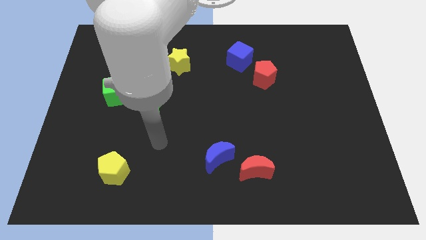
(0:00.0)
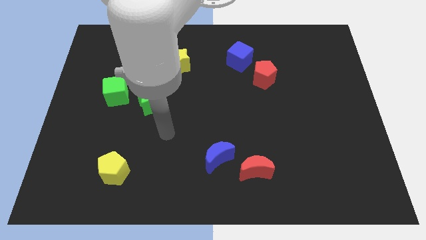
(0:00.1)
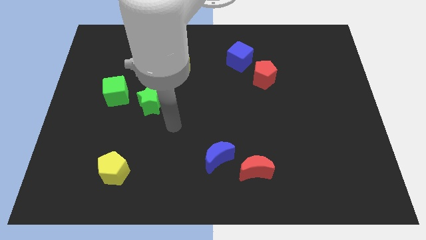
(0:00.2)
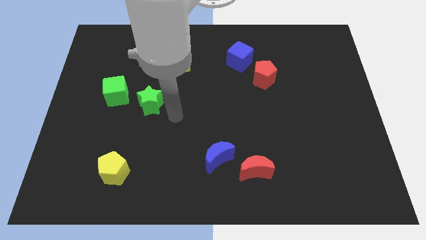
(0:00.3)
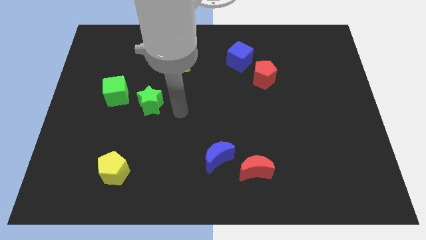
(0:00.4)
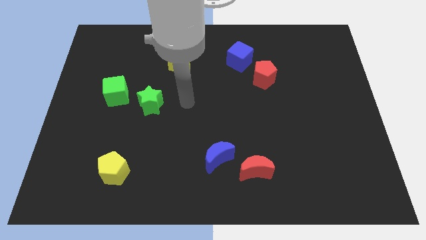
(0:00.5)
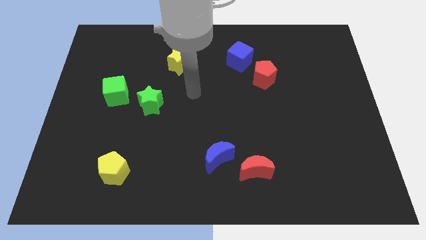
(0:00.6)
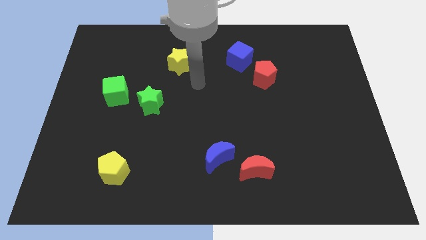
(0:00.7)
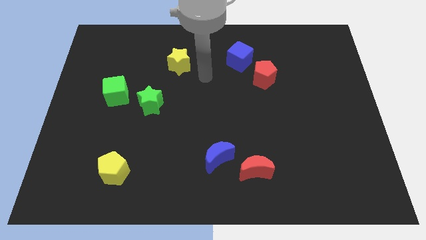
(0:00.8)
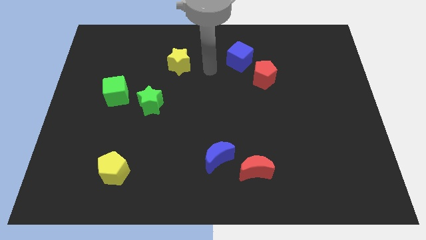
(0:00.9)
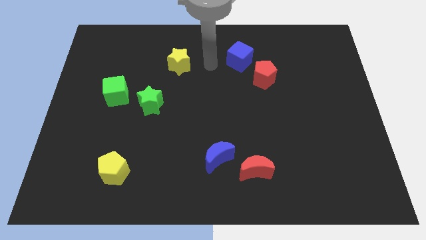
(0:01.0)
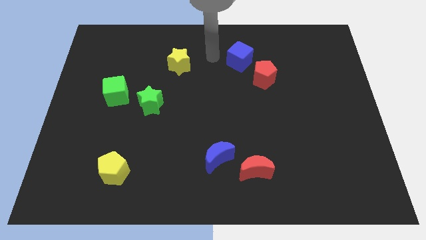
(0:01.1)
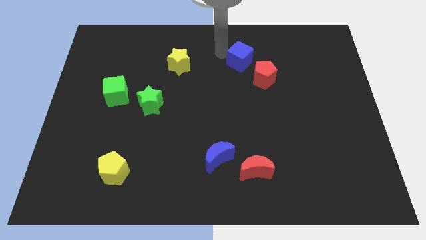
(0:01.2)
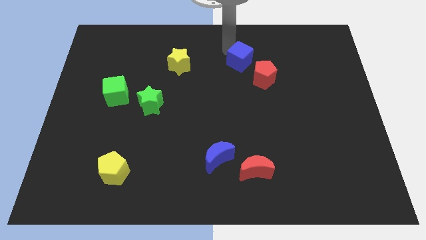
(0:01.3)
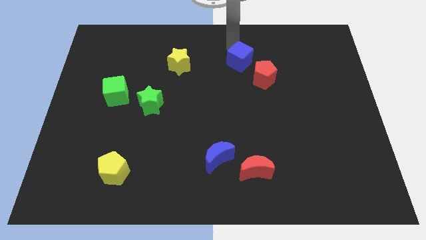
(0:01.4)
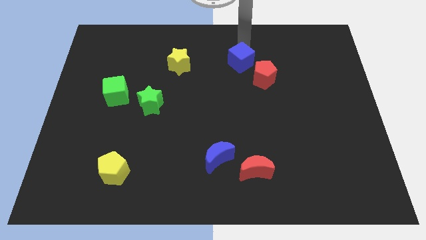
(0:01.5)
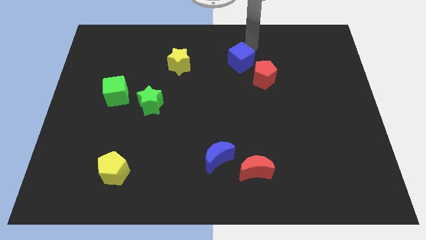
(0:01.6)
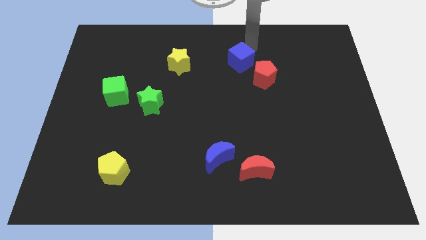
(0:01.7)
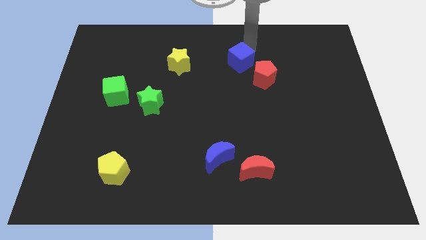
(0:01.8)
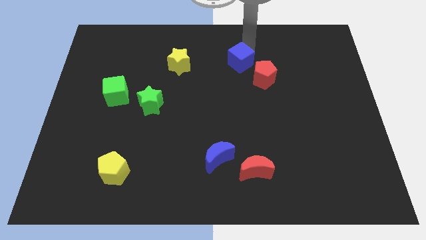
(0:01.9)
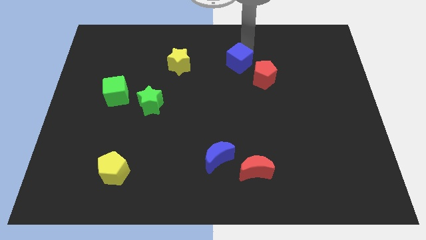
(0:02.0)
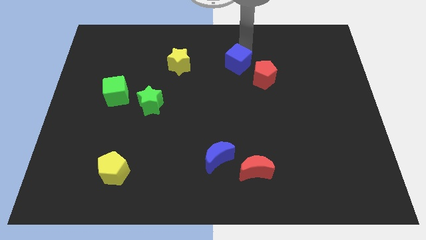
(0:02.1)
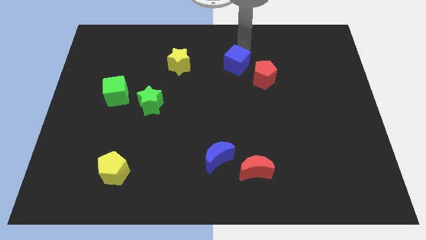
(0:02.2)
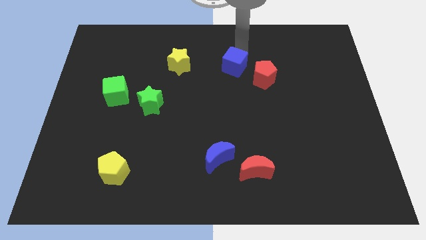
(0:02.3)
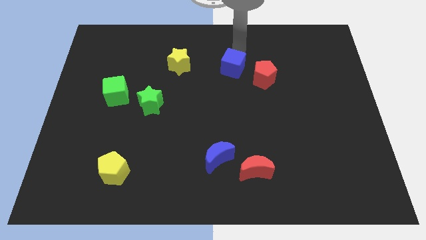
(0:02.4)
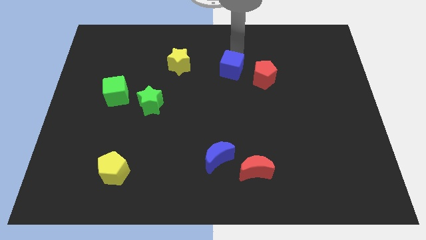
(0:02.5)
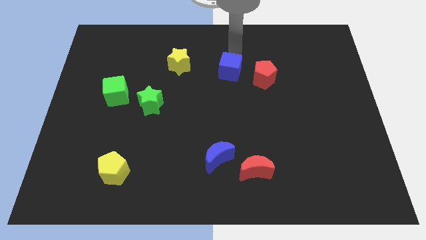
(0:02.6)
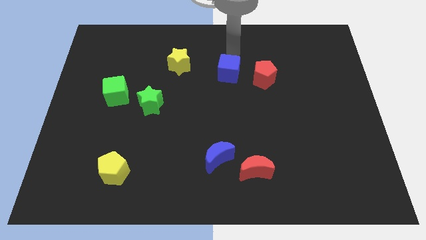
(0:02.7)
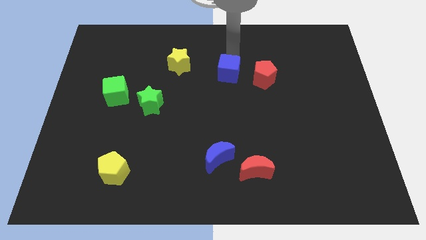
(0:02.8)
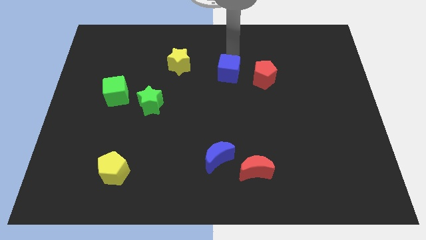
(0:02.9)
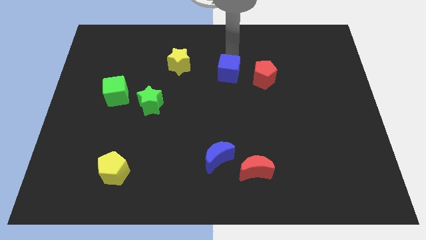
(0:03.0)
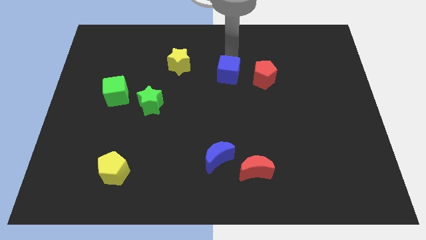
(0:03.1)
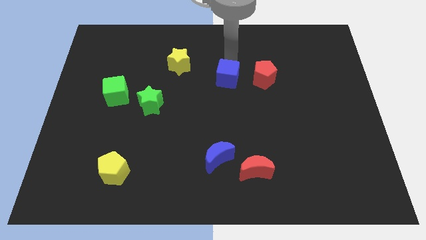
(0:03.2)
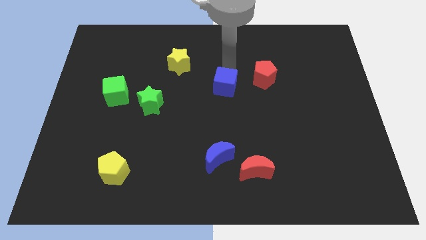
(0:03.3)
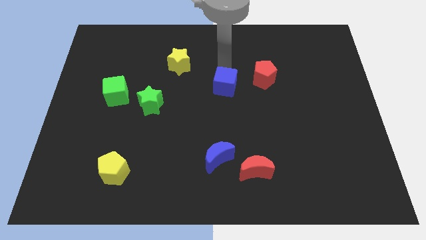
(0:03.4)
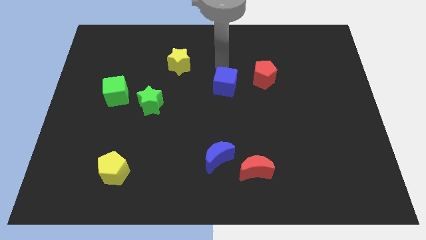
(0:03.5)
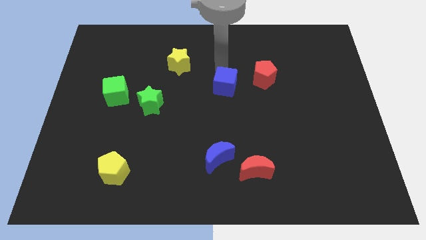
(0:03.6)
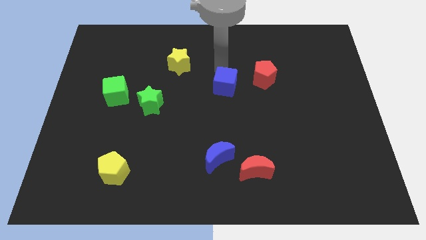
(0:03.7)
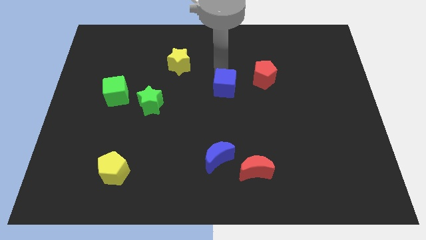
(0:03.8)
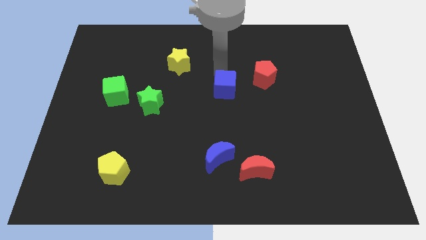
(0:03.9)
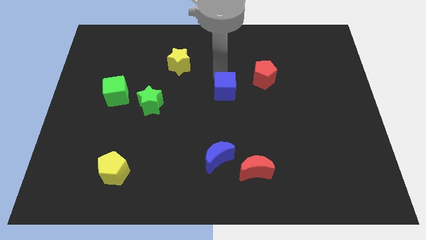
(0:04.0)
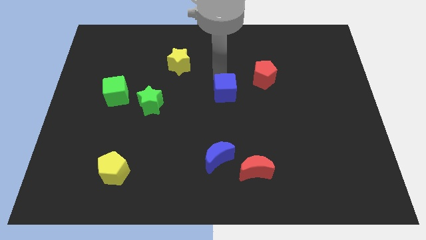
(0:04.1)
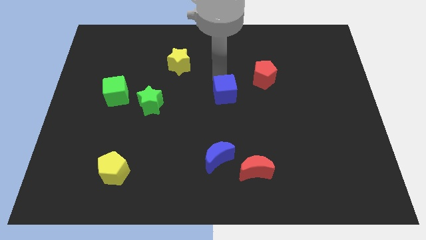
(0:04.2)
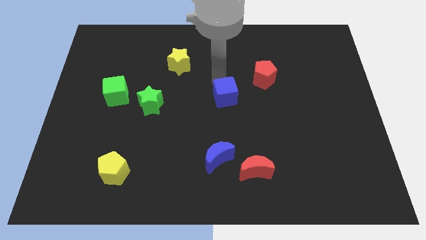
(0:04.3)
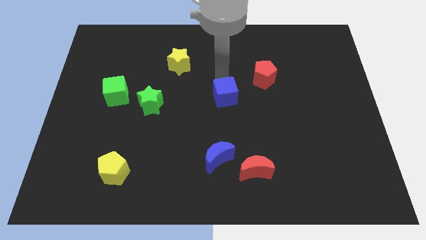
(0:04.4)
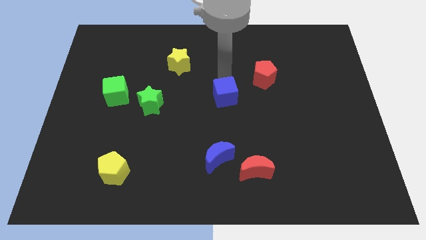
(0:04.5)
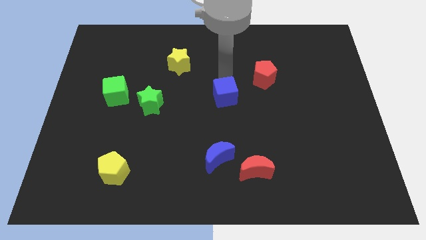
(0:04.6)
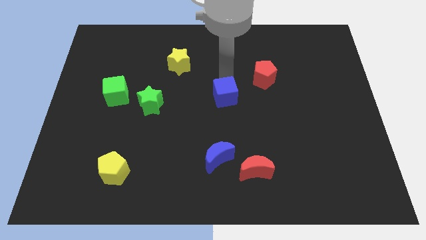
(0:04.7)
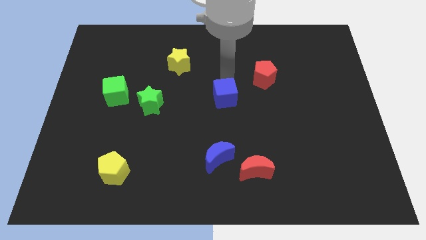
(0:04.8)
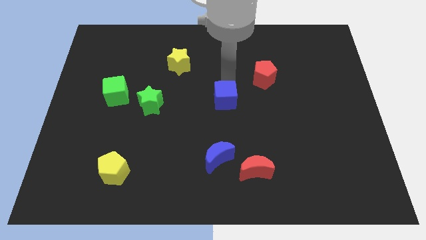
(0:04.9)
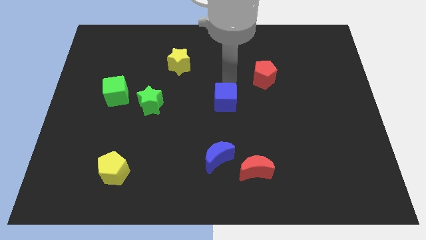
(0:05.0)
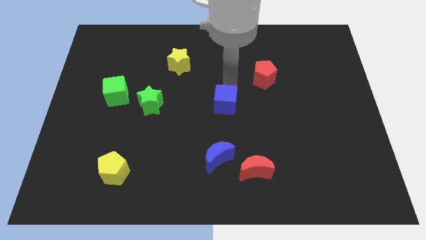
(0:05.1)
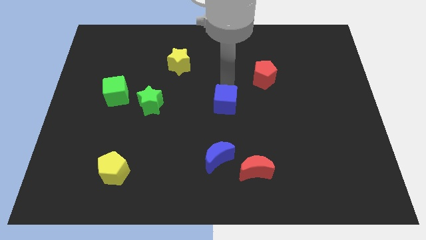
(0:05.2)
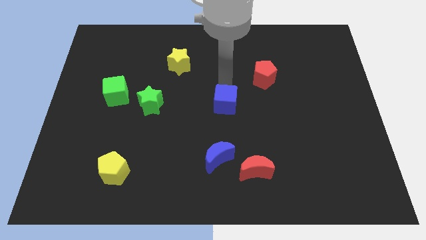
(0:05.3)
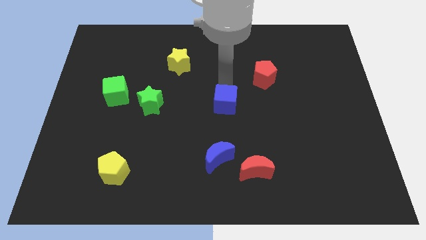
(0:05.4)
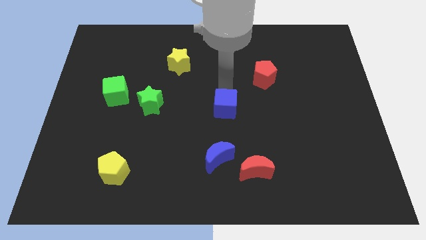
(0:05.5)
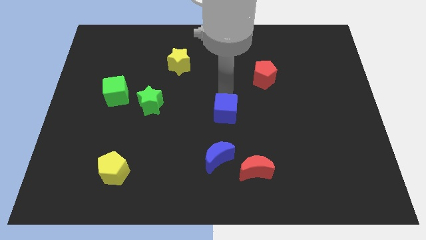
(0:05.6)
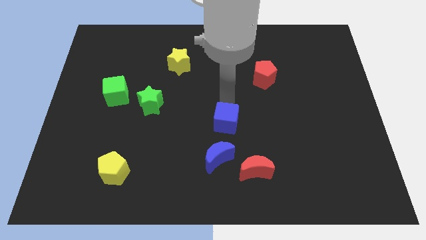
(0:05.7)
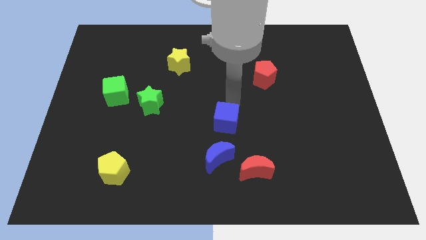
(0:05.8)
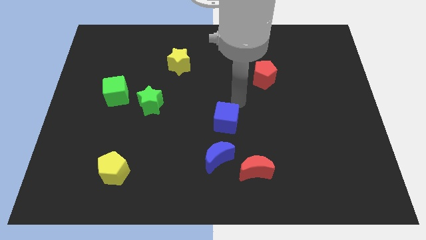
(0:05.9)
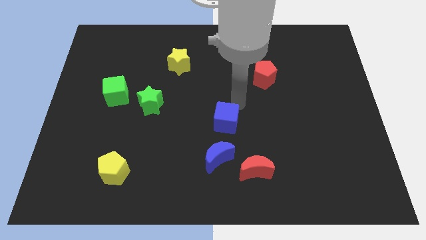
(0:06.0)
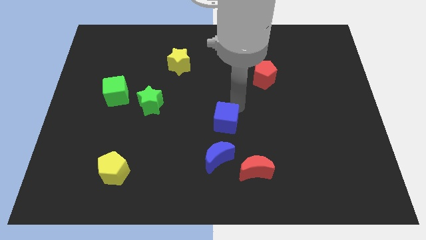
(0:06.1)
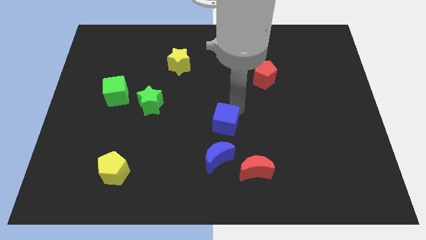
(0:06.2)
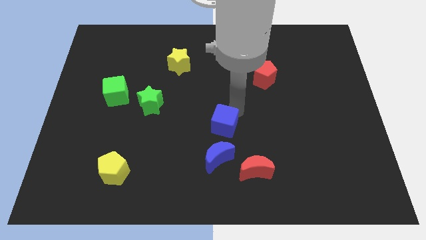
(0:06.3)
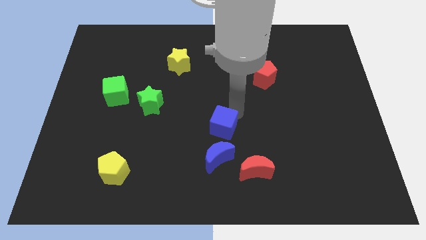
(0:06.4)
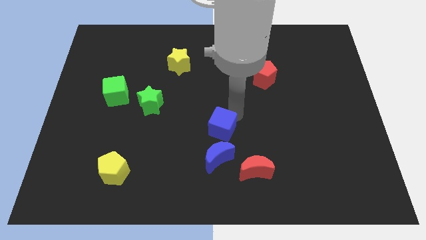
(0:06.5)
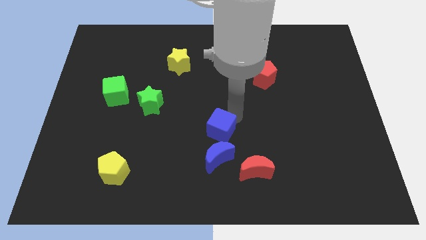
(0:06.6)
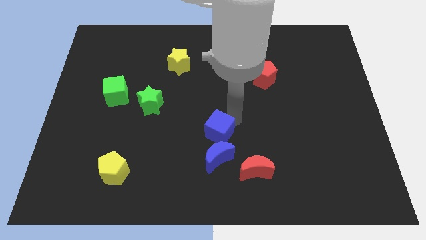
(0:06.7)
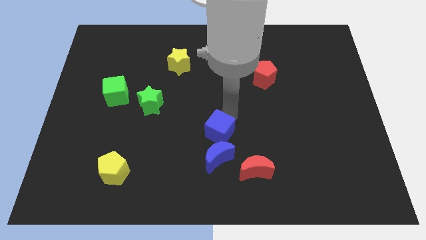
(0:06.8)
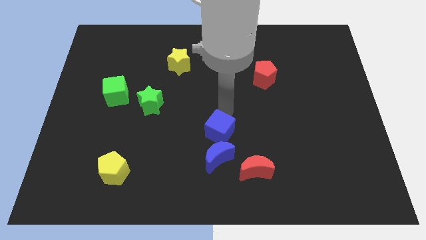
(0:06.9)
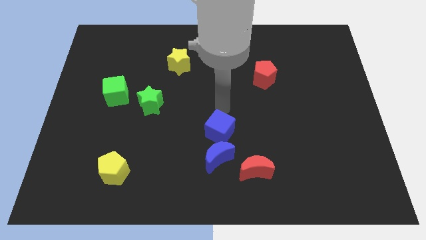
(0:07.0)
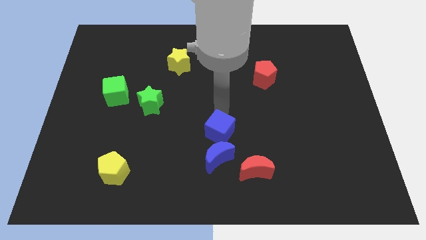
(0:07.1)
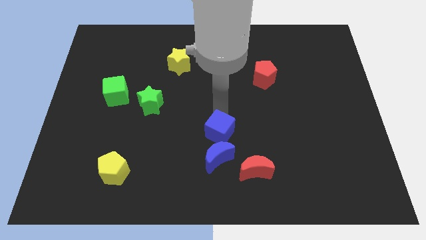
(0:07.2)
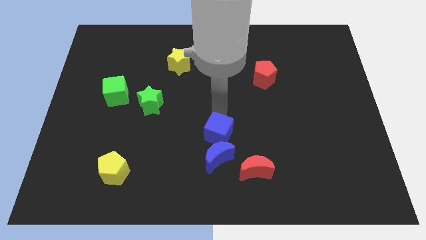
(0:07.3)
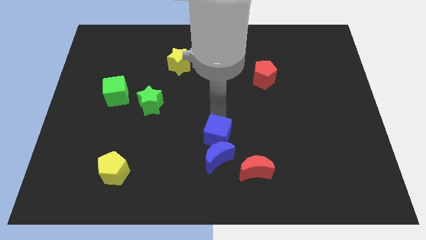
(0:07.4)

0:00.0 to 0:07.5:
push the blue cube next to the blue moon

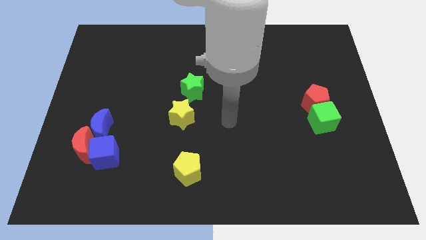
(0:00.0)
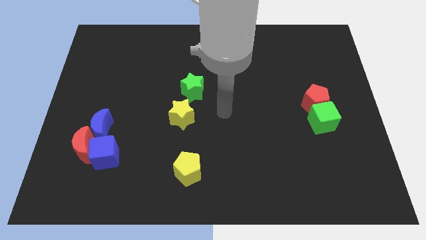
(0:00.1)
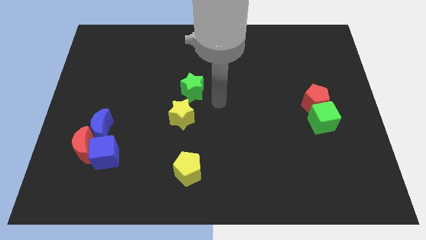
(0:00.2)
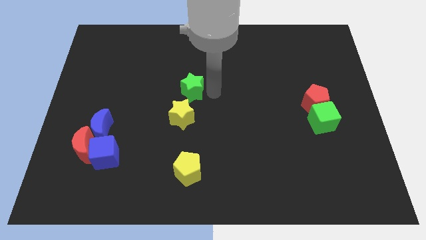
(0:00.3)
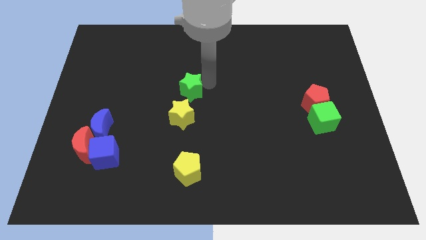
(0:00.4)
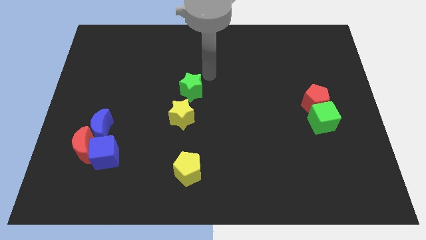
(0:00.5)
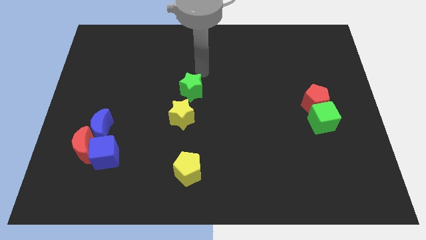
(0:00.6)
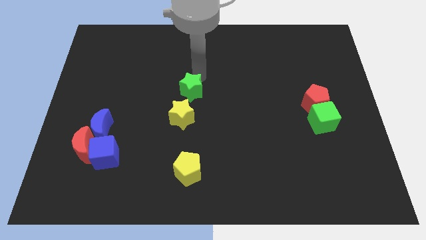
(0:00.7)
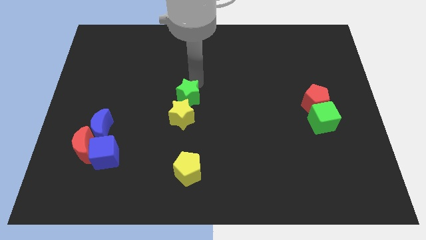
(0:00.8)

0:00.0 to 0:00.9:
move the green star towards the yellow star
